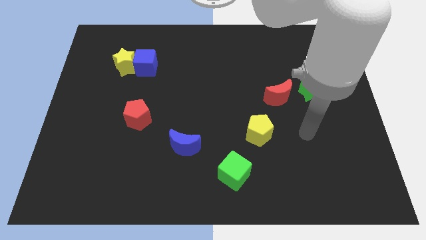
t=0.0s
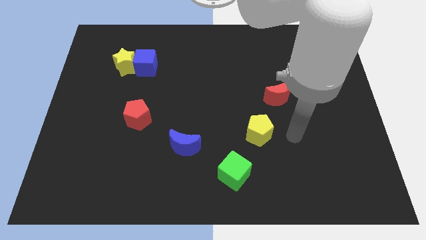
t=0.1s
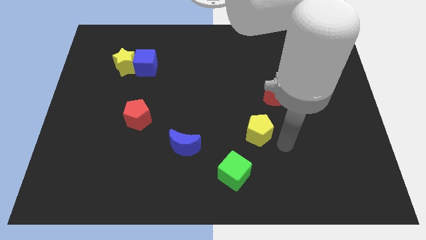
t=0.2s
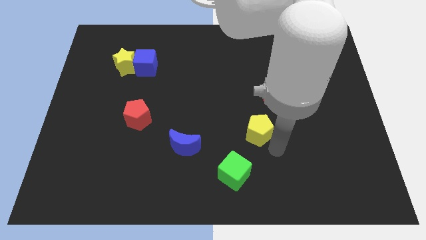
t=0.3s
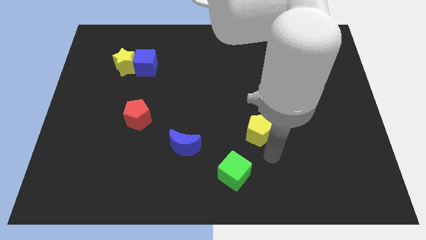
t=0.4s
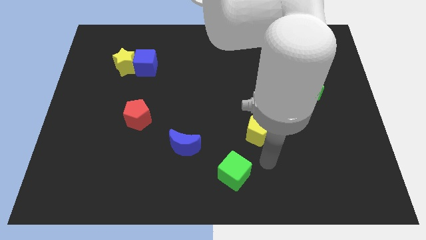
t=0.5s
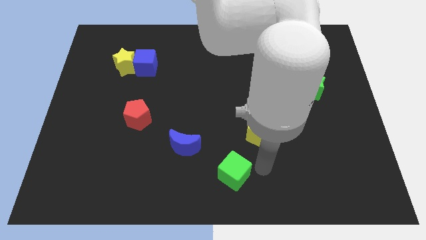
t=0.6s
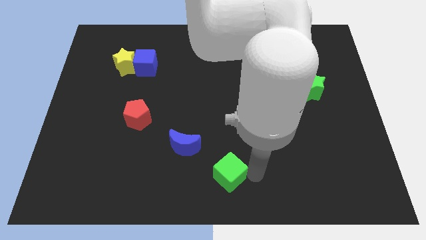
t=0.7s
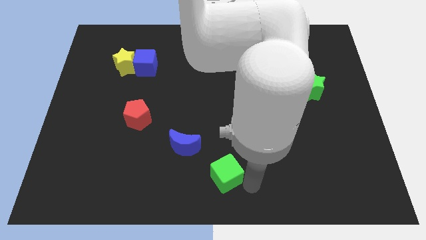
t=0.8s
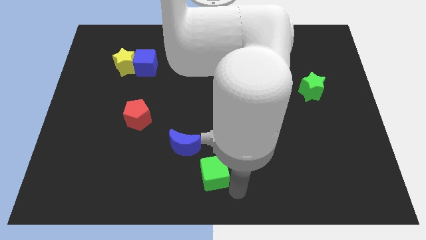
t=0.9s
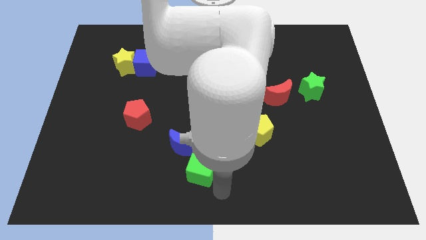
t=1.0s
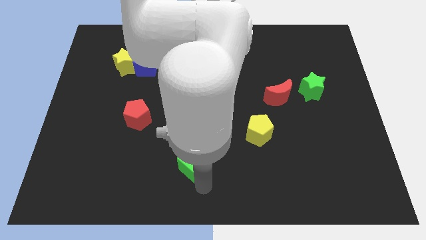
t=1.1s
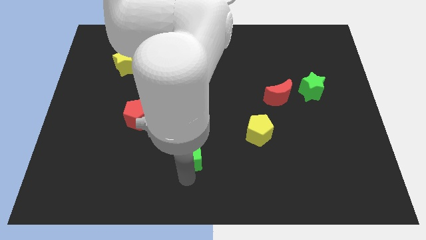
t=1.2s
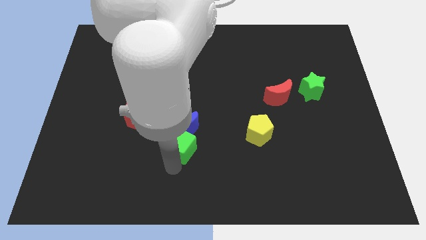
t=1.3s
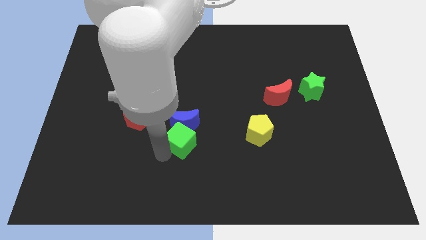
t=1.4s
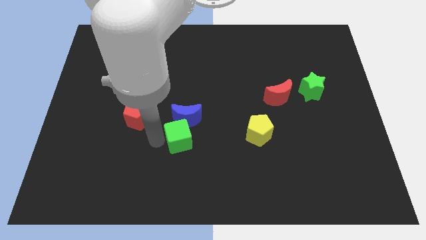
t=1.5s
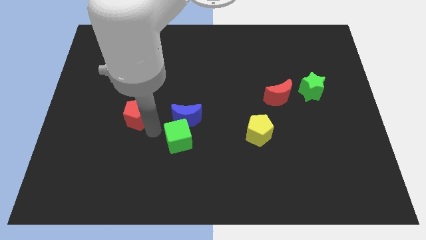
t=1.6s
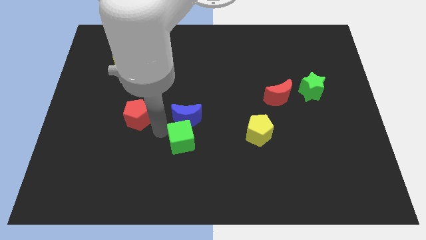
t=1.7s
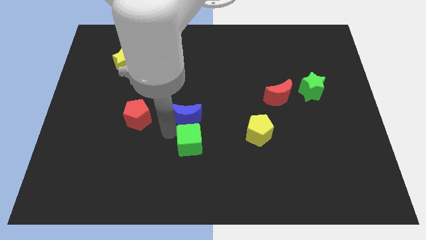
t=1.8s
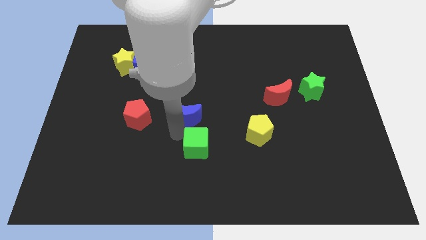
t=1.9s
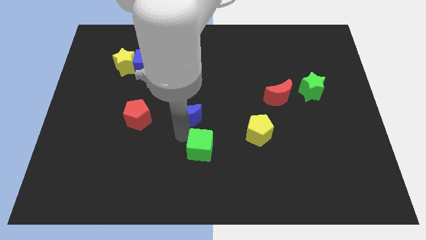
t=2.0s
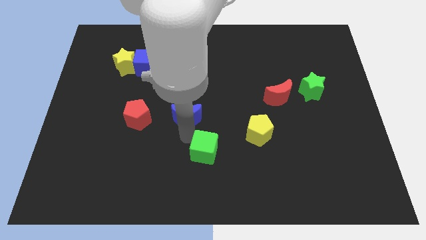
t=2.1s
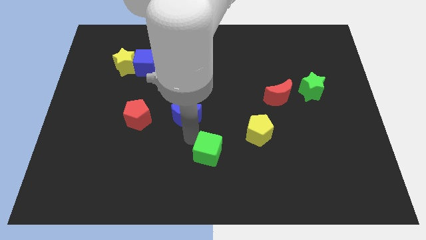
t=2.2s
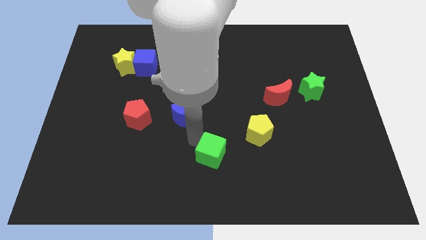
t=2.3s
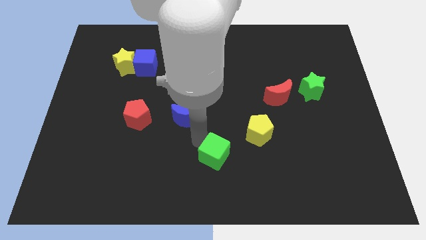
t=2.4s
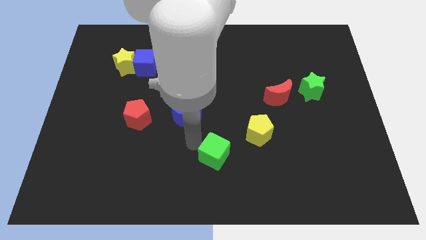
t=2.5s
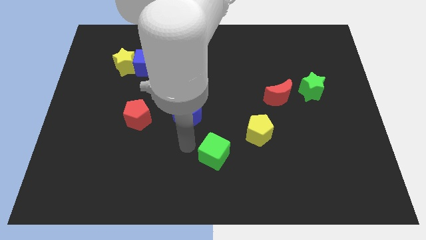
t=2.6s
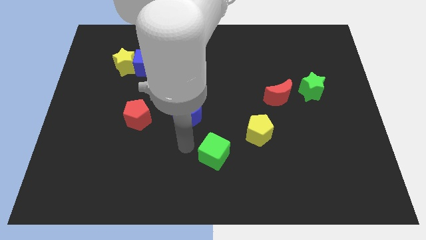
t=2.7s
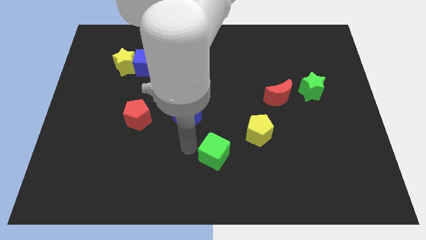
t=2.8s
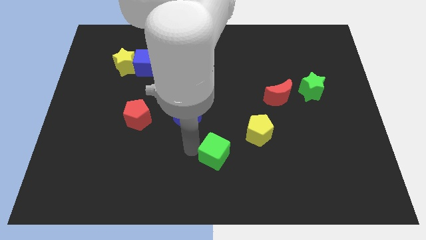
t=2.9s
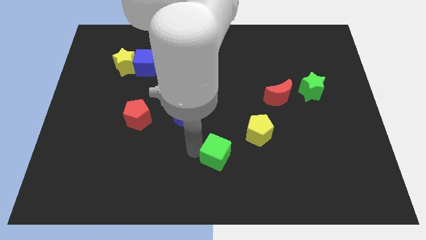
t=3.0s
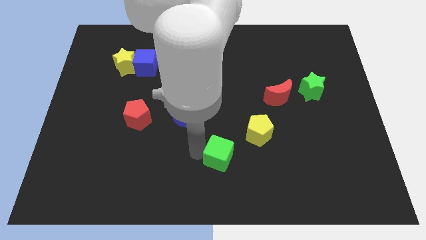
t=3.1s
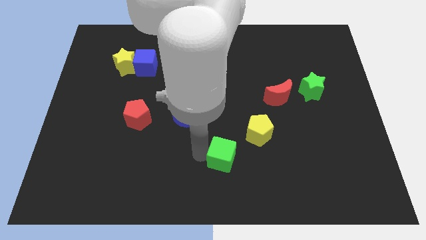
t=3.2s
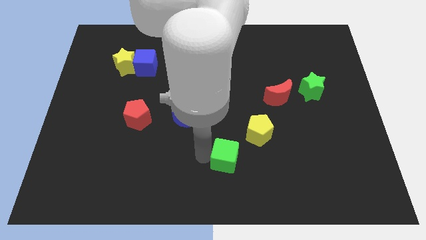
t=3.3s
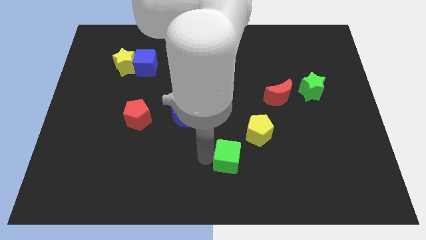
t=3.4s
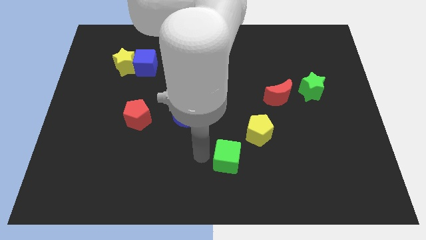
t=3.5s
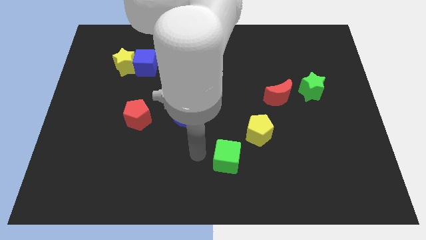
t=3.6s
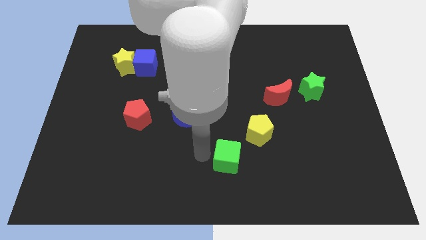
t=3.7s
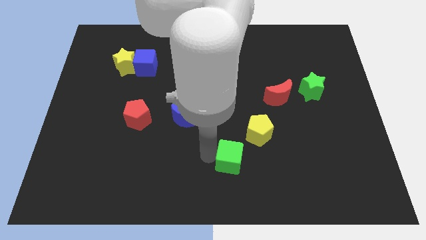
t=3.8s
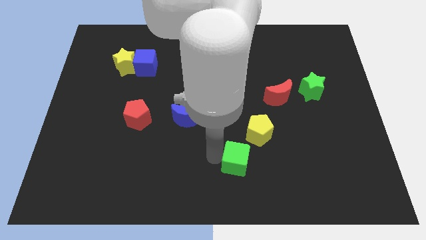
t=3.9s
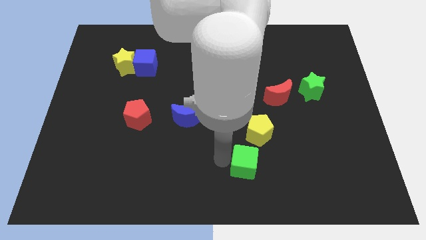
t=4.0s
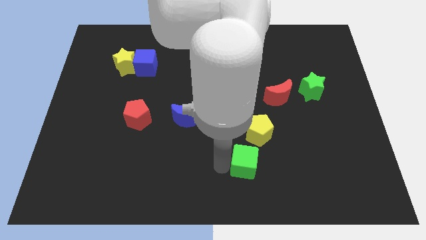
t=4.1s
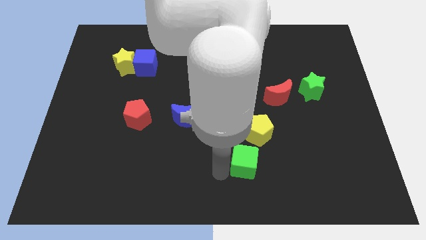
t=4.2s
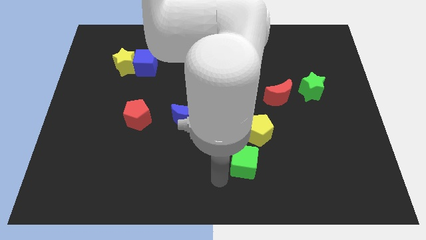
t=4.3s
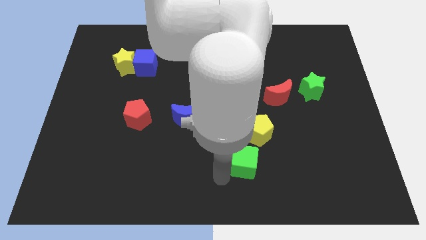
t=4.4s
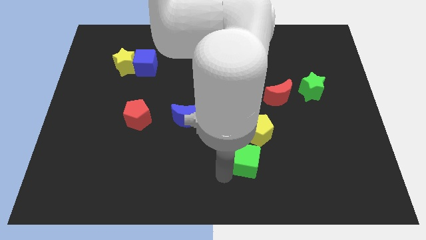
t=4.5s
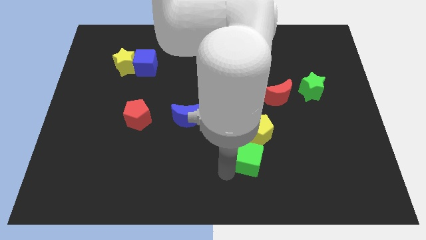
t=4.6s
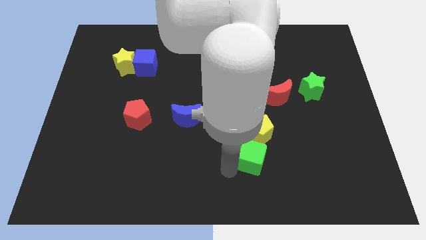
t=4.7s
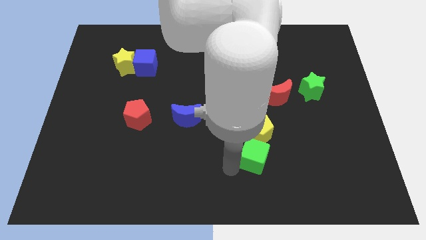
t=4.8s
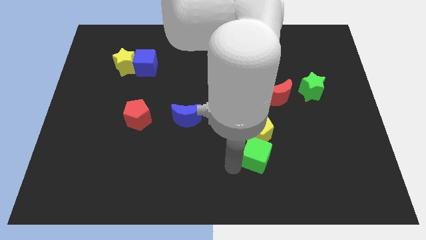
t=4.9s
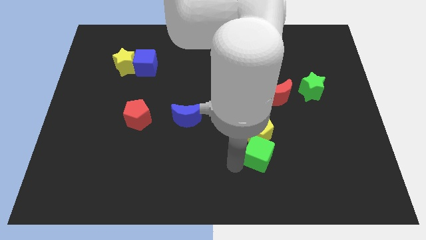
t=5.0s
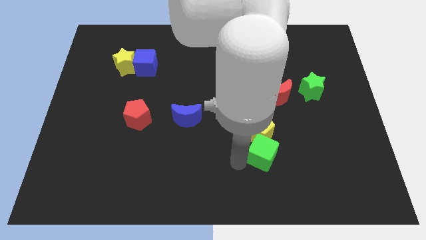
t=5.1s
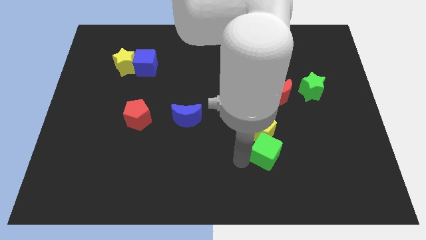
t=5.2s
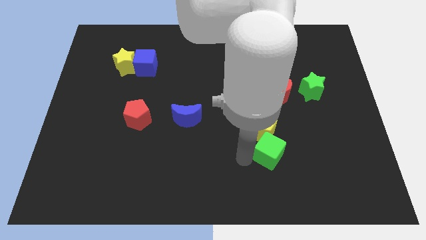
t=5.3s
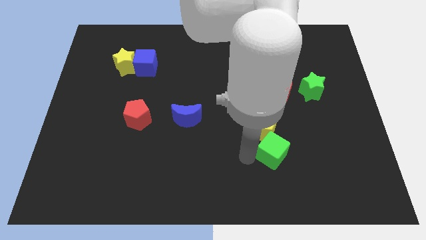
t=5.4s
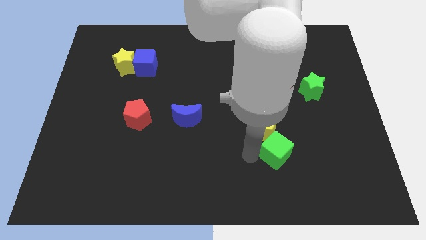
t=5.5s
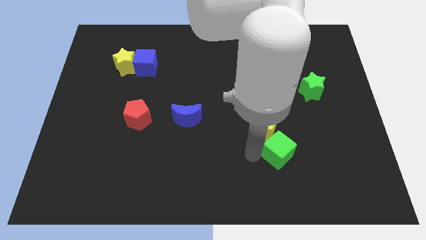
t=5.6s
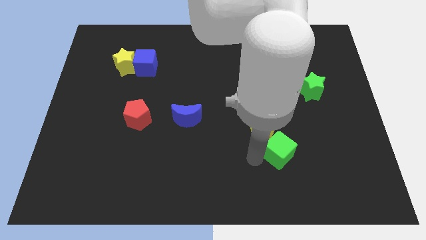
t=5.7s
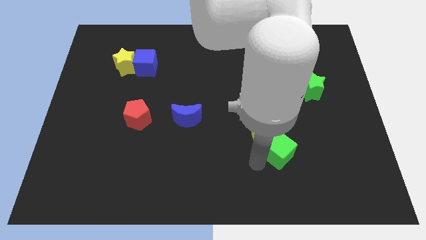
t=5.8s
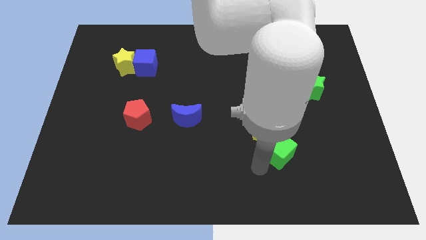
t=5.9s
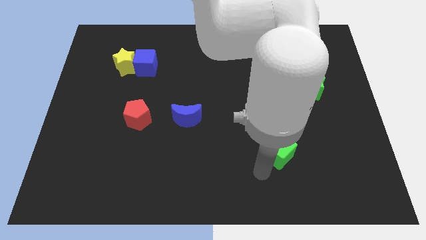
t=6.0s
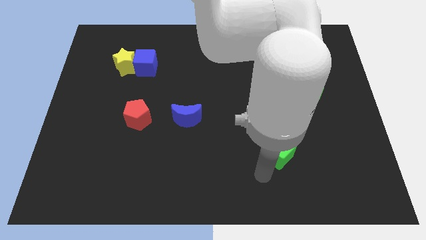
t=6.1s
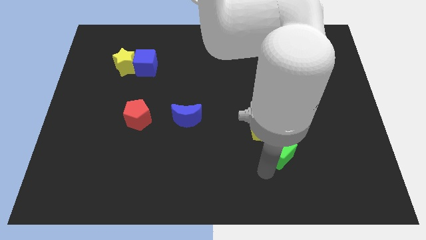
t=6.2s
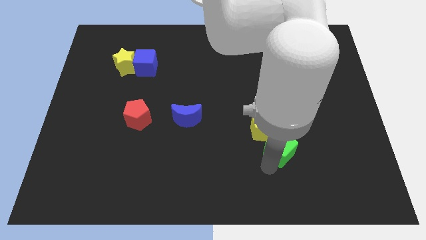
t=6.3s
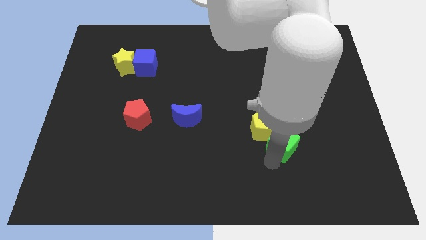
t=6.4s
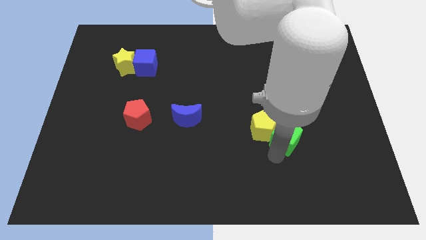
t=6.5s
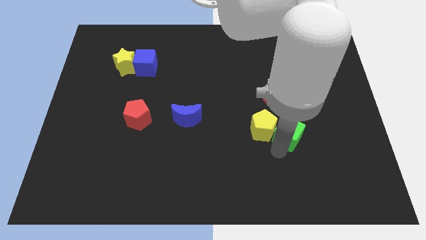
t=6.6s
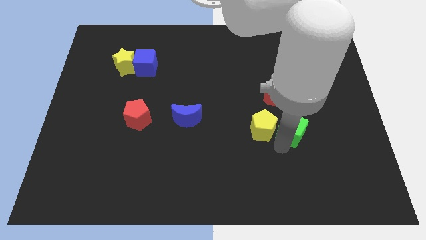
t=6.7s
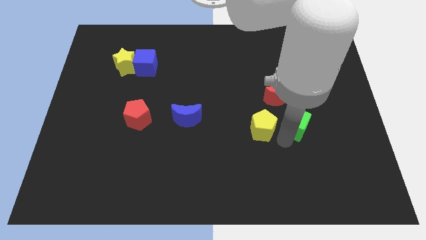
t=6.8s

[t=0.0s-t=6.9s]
push the green cube diagonally down and to the right of the red moon

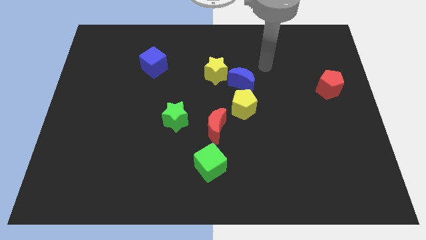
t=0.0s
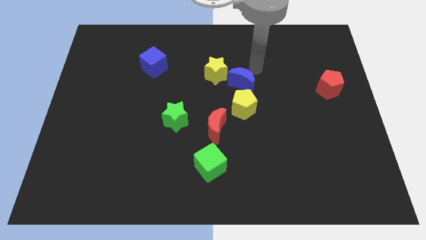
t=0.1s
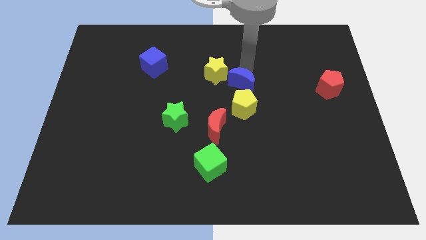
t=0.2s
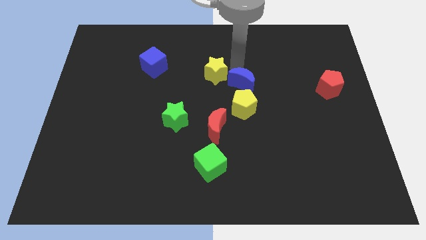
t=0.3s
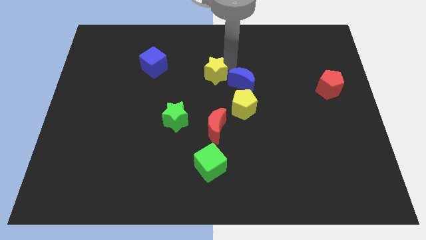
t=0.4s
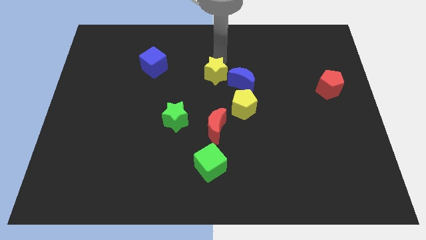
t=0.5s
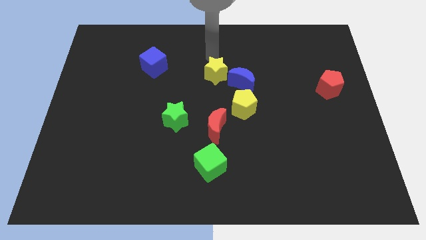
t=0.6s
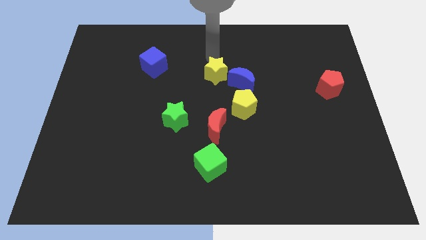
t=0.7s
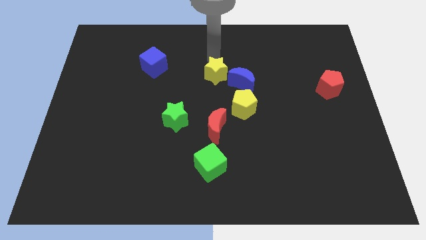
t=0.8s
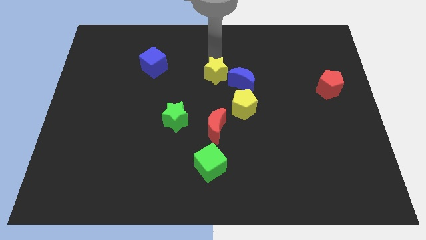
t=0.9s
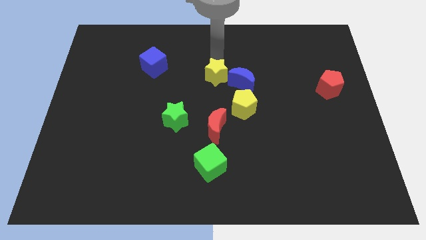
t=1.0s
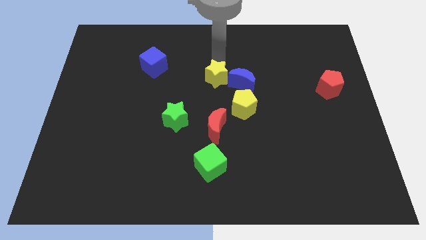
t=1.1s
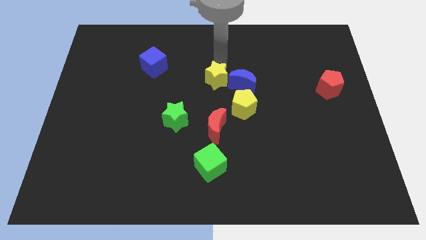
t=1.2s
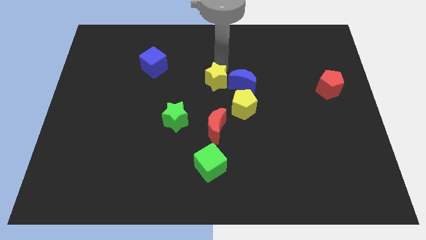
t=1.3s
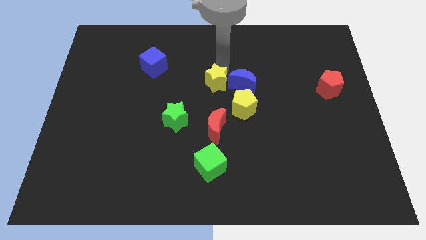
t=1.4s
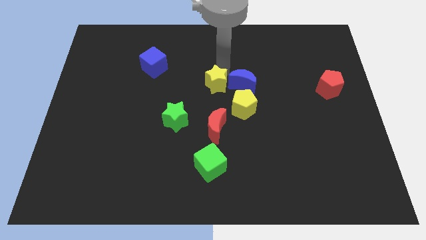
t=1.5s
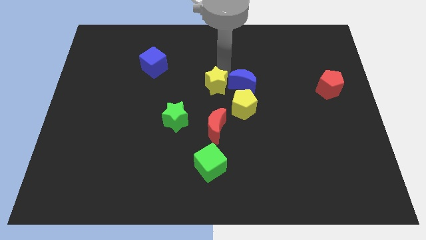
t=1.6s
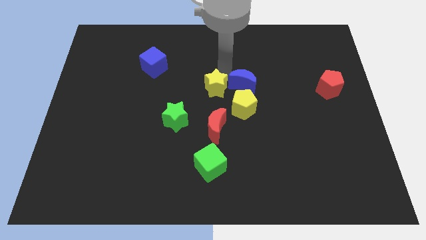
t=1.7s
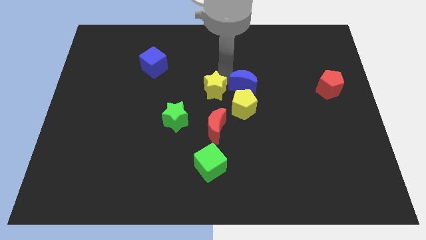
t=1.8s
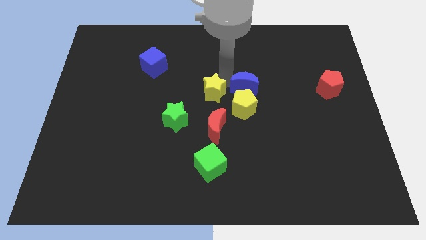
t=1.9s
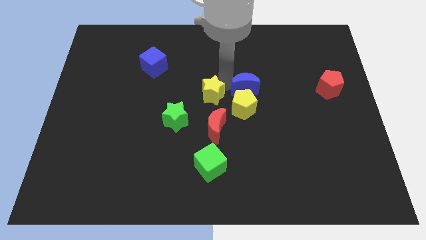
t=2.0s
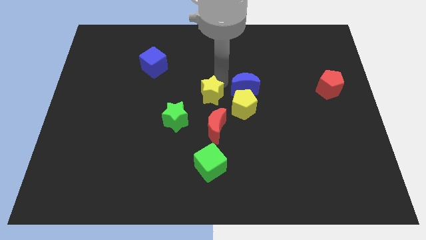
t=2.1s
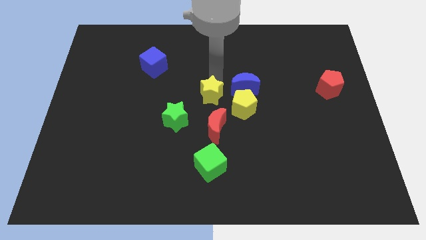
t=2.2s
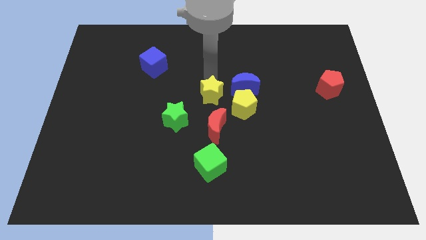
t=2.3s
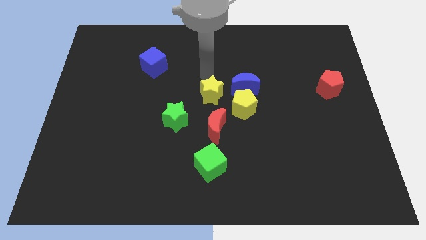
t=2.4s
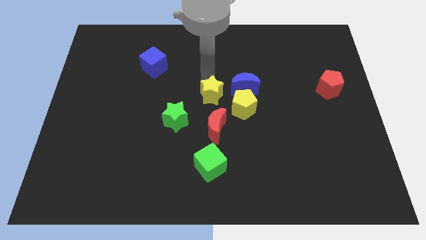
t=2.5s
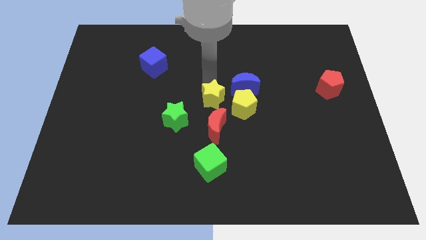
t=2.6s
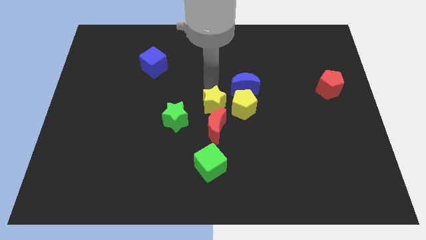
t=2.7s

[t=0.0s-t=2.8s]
slide the yellow star to the right of the green star
